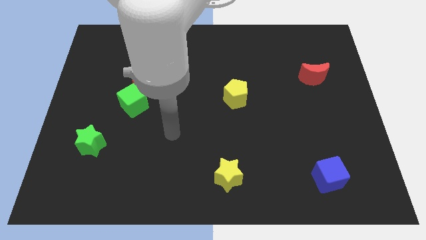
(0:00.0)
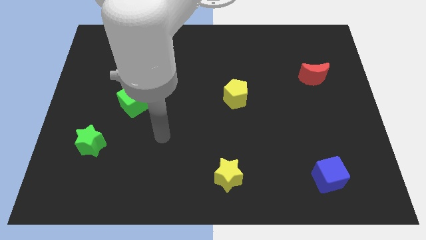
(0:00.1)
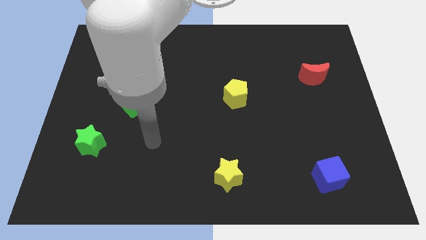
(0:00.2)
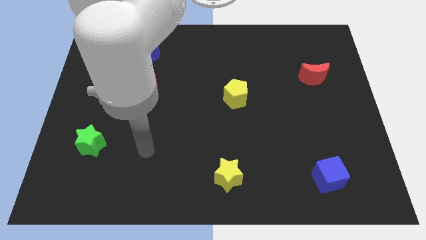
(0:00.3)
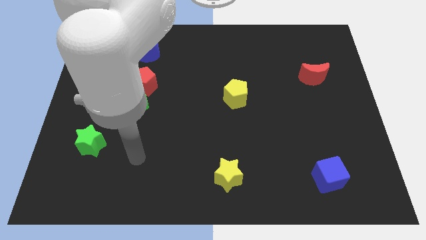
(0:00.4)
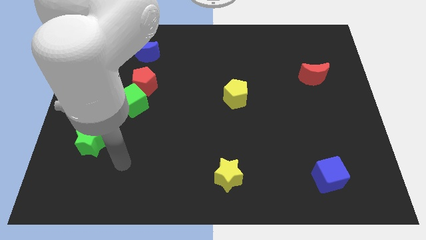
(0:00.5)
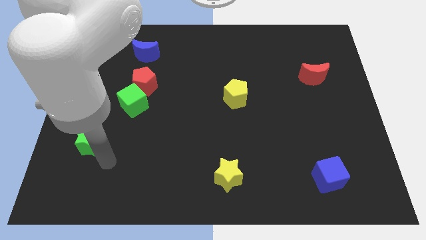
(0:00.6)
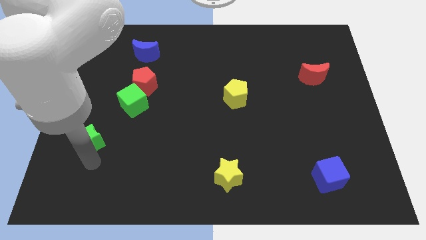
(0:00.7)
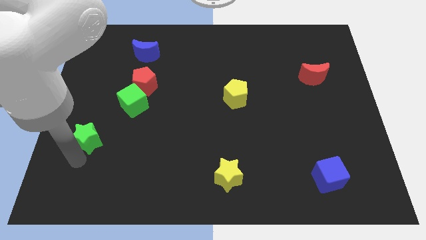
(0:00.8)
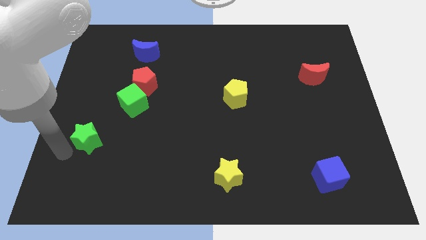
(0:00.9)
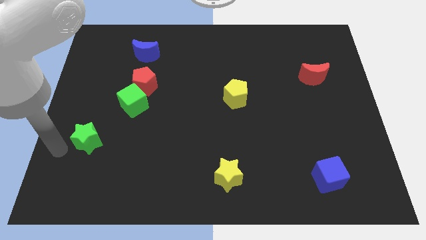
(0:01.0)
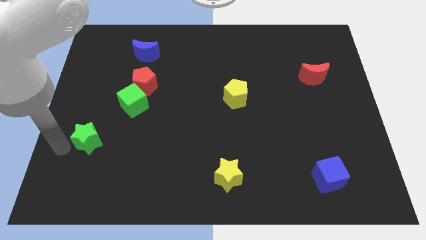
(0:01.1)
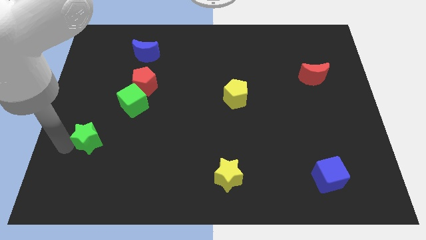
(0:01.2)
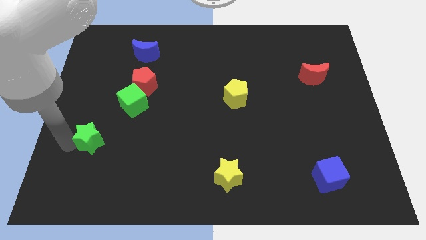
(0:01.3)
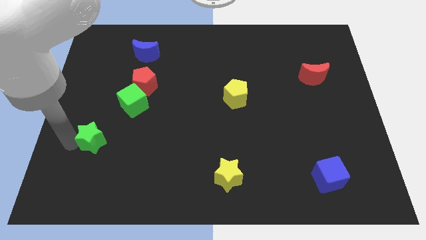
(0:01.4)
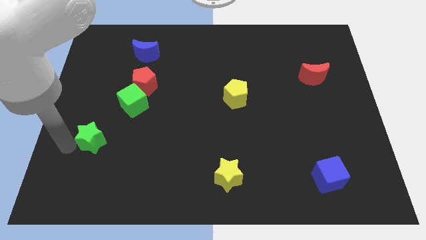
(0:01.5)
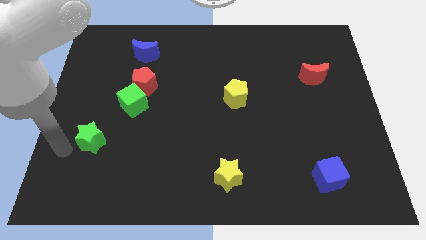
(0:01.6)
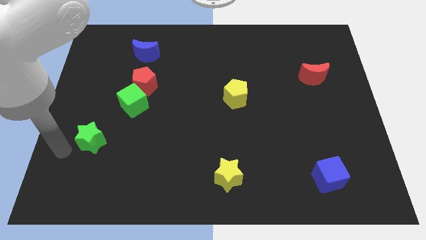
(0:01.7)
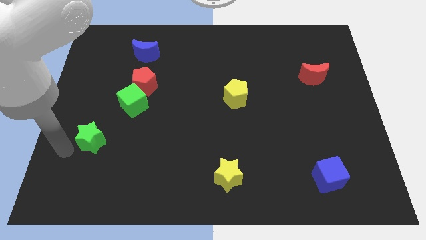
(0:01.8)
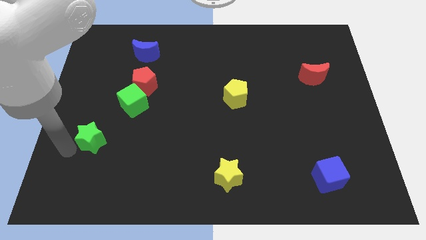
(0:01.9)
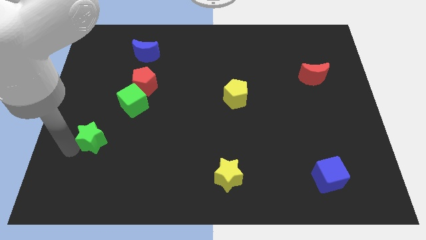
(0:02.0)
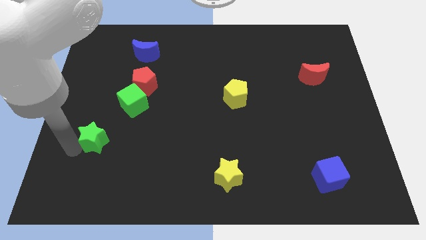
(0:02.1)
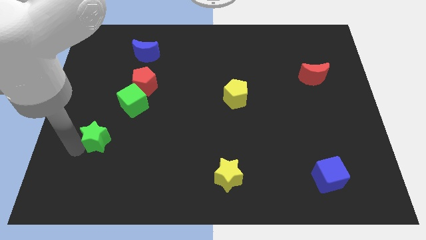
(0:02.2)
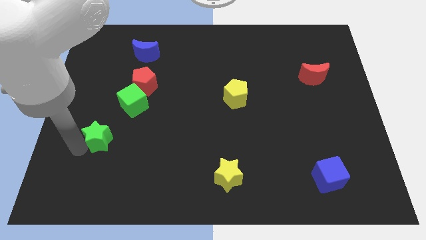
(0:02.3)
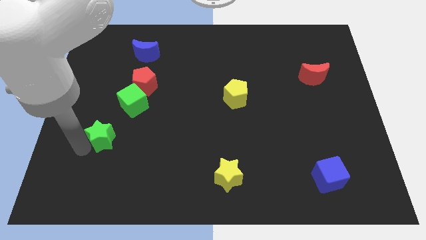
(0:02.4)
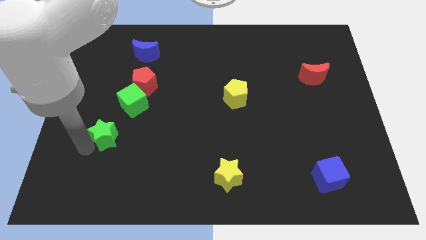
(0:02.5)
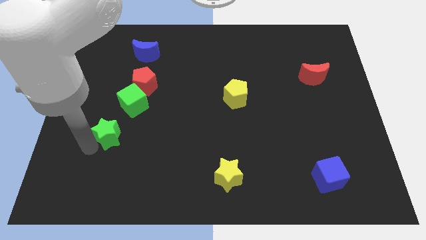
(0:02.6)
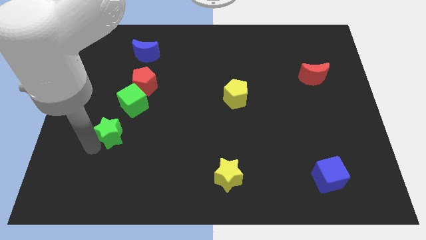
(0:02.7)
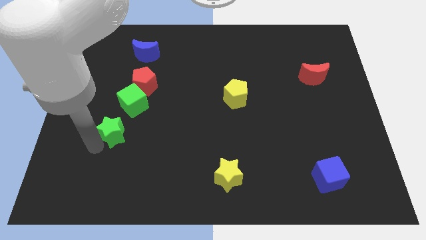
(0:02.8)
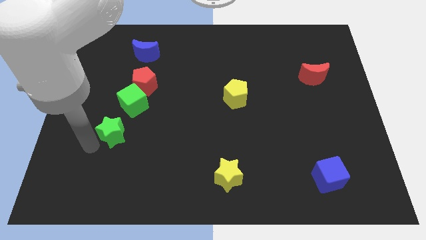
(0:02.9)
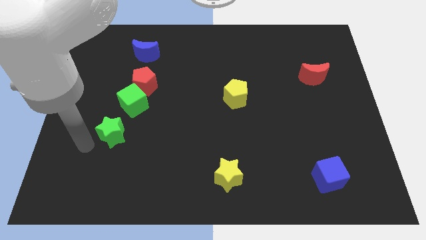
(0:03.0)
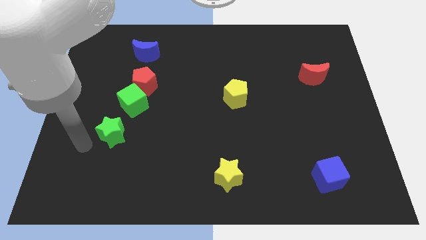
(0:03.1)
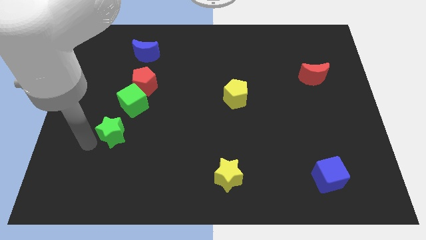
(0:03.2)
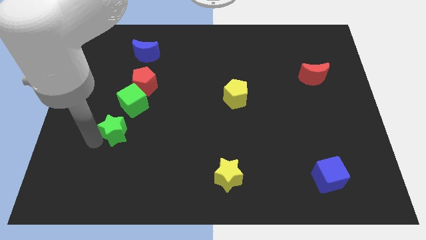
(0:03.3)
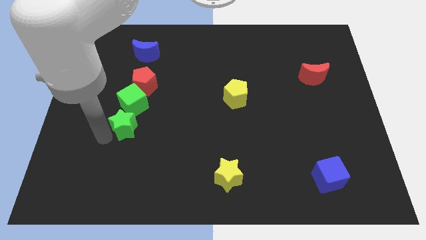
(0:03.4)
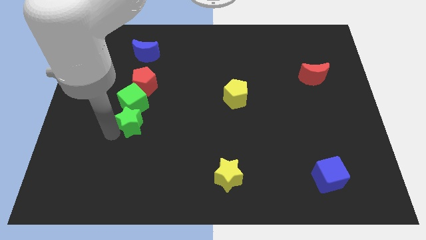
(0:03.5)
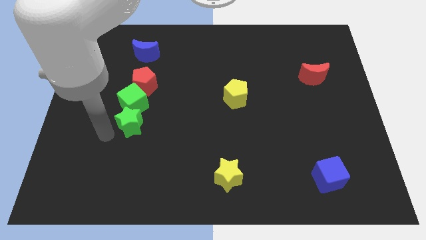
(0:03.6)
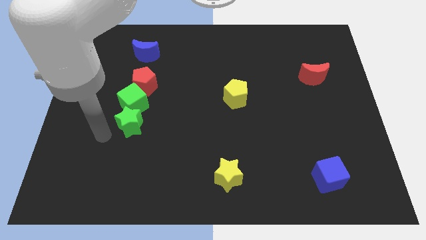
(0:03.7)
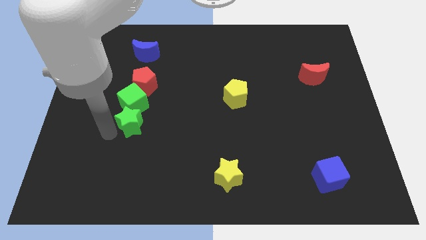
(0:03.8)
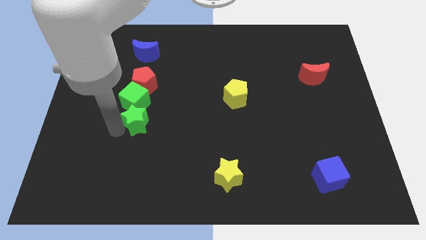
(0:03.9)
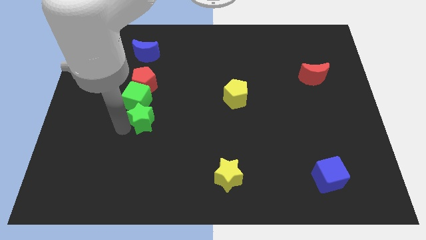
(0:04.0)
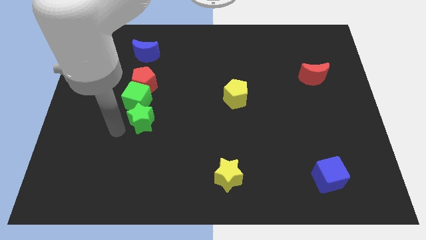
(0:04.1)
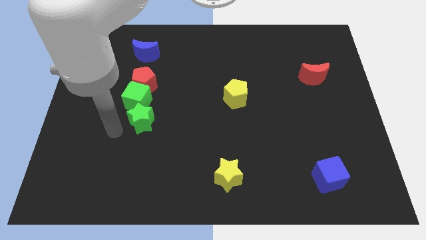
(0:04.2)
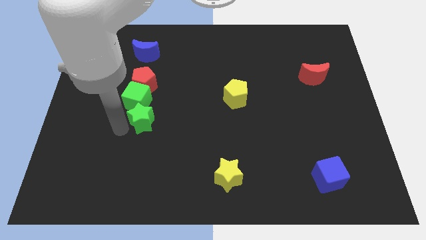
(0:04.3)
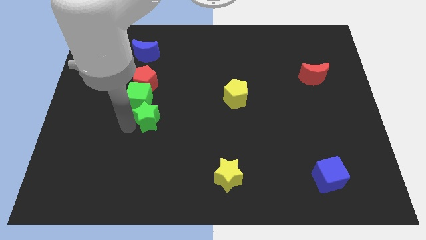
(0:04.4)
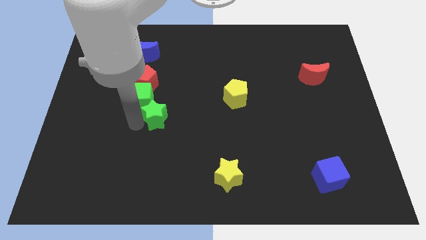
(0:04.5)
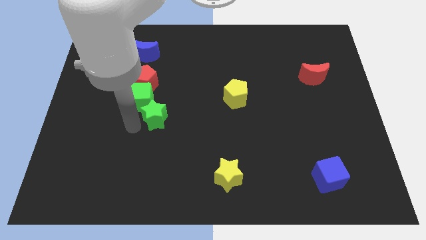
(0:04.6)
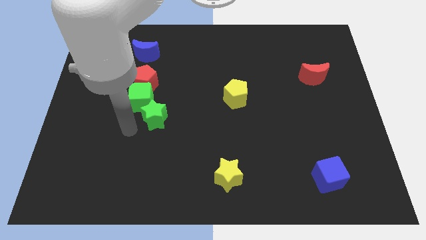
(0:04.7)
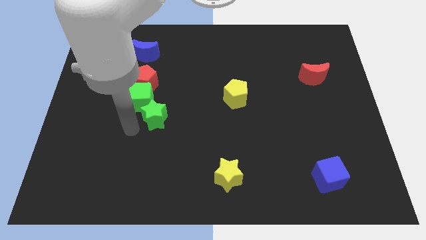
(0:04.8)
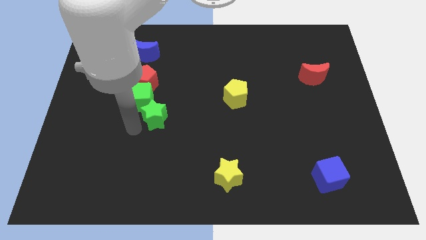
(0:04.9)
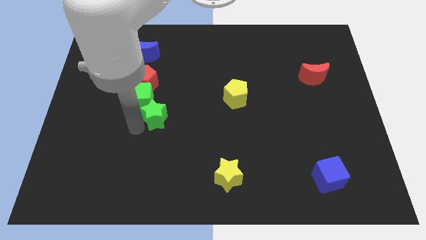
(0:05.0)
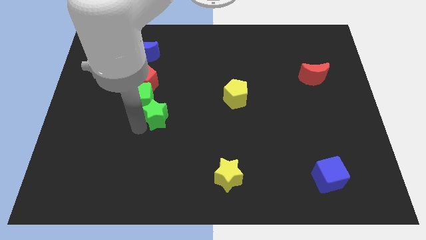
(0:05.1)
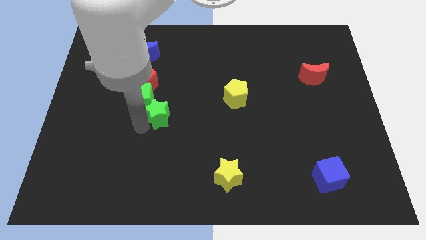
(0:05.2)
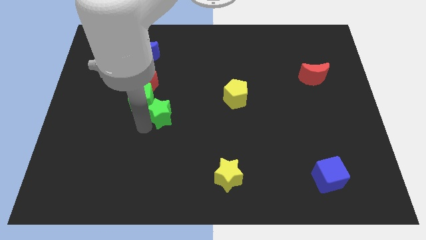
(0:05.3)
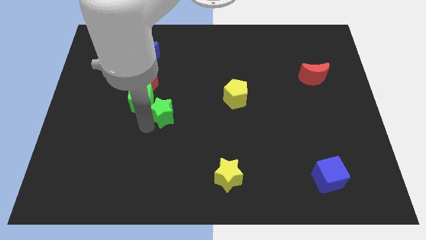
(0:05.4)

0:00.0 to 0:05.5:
put the green star to the middle

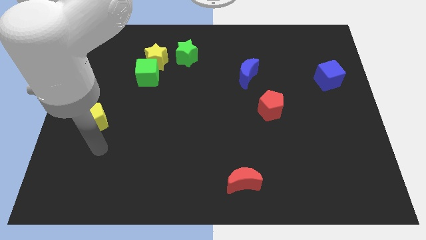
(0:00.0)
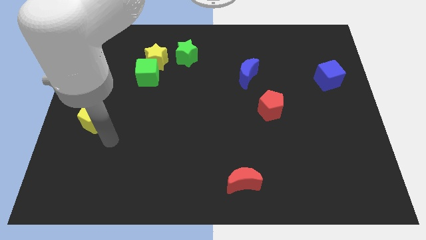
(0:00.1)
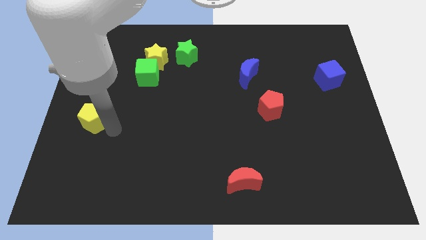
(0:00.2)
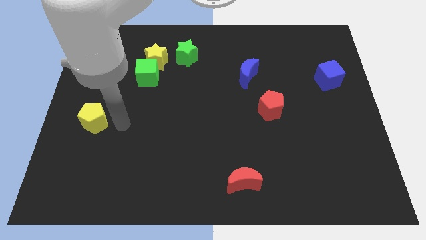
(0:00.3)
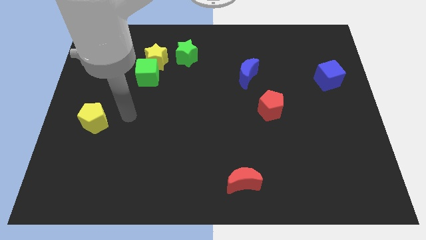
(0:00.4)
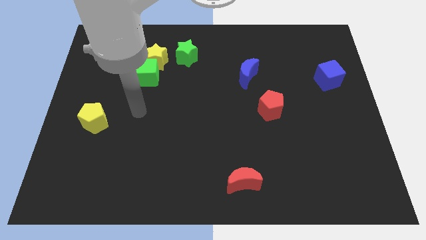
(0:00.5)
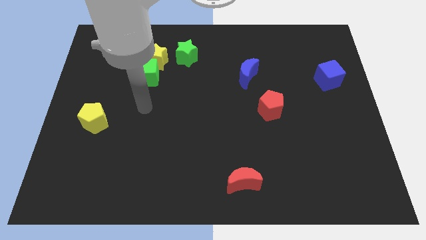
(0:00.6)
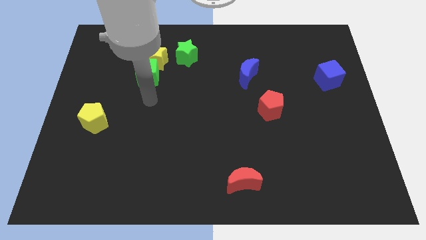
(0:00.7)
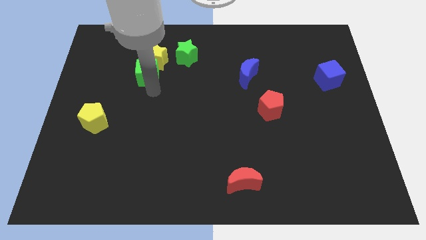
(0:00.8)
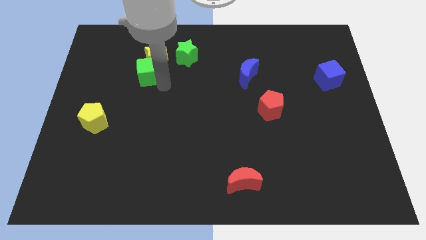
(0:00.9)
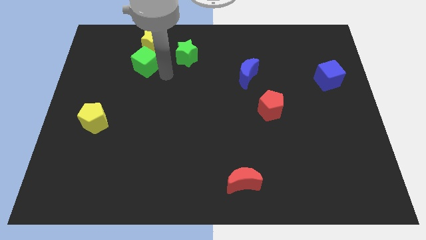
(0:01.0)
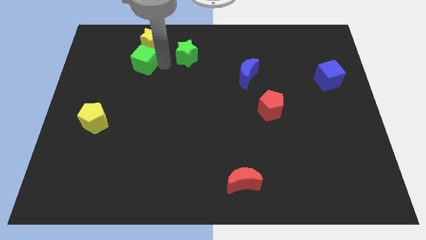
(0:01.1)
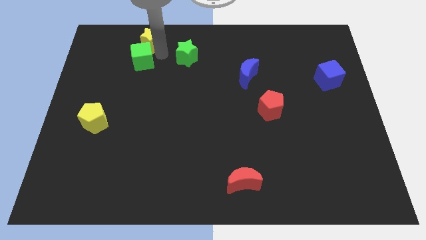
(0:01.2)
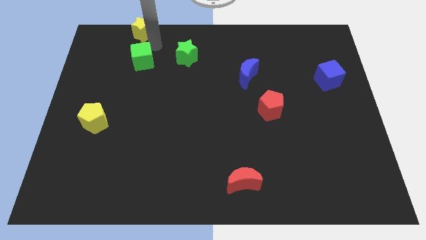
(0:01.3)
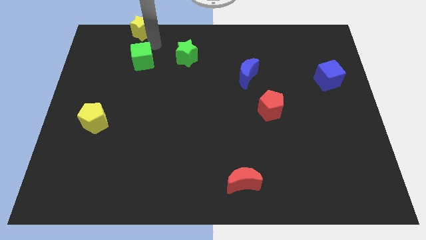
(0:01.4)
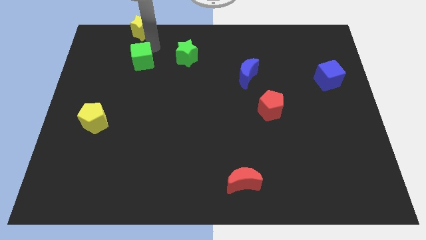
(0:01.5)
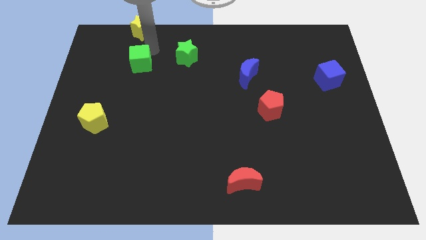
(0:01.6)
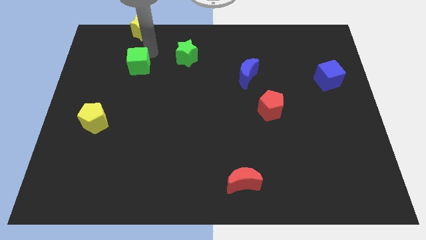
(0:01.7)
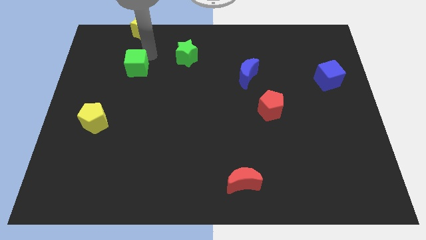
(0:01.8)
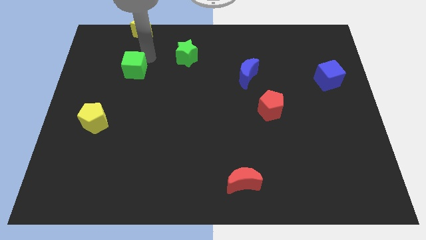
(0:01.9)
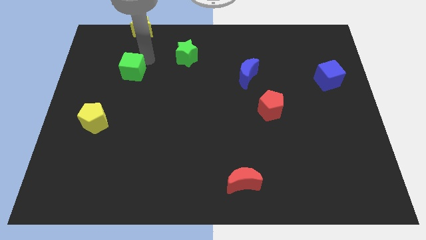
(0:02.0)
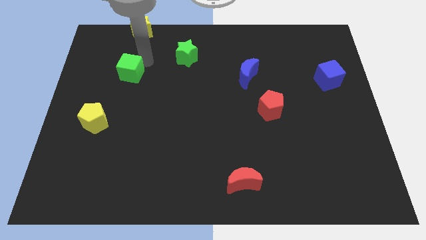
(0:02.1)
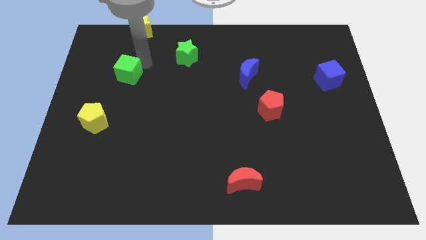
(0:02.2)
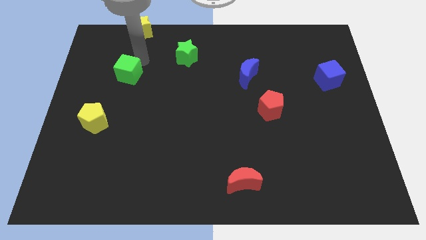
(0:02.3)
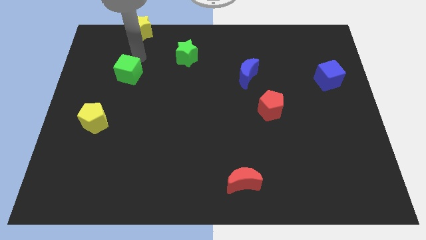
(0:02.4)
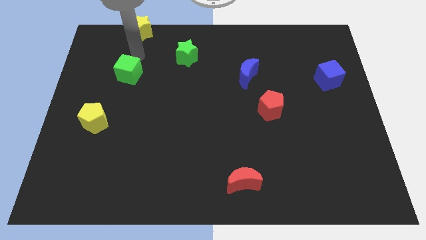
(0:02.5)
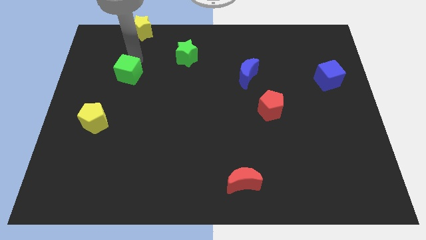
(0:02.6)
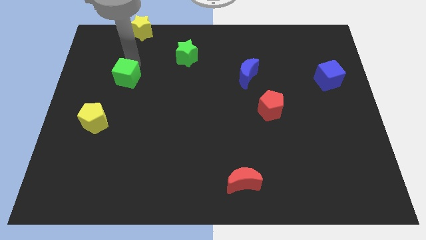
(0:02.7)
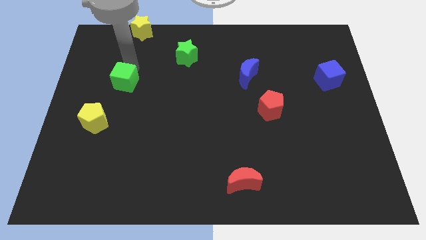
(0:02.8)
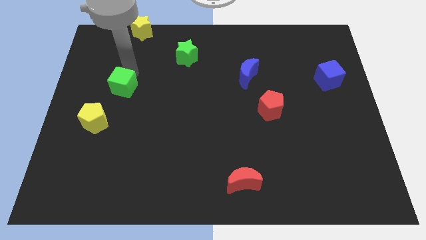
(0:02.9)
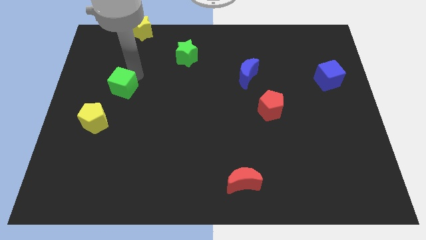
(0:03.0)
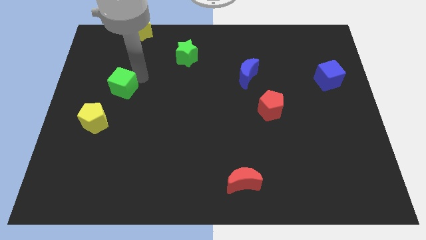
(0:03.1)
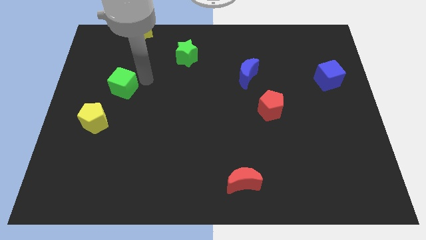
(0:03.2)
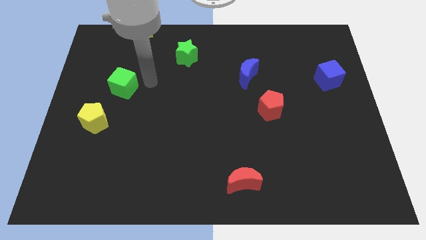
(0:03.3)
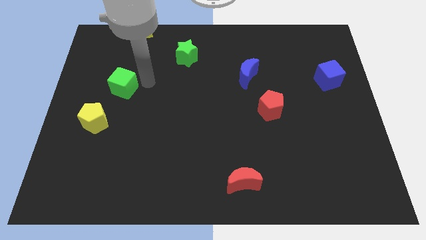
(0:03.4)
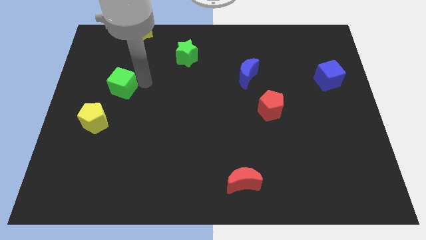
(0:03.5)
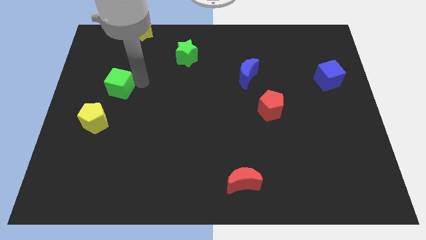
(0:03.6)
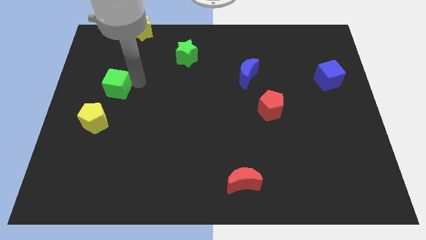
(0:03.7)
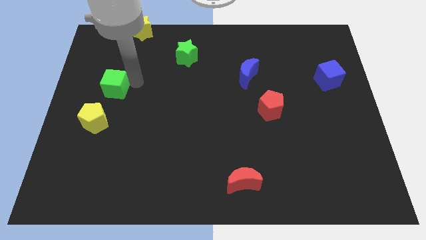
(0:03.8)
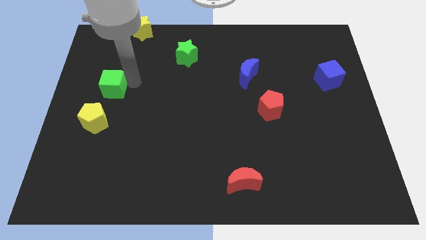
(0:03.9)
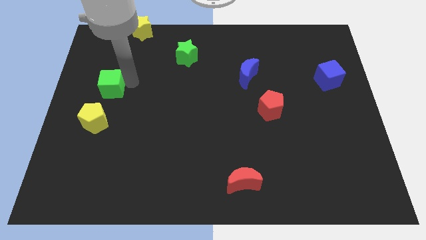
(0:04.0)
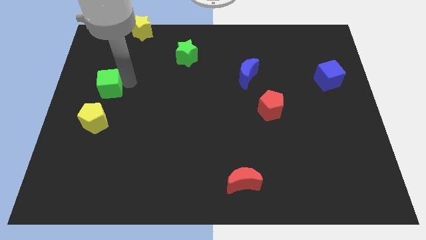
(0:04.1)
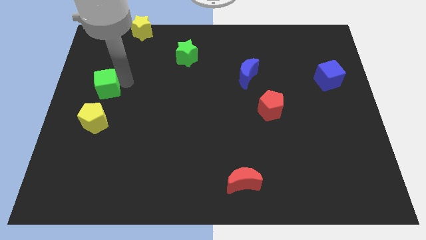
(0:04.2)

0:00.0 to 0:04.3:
put the green cube to the left side
